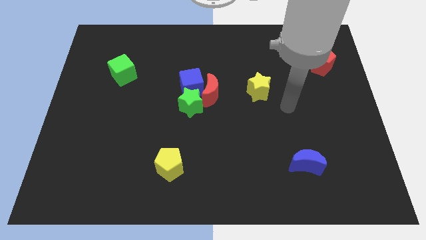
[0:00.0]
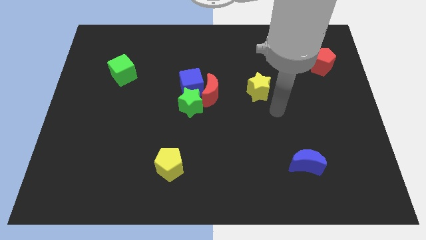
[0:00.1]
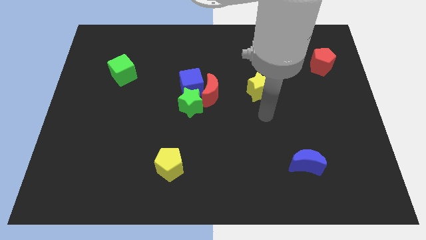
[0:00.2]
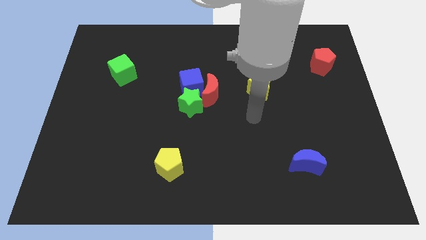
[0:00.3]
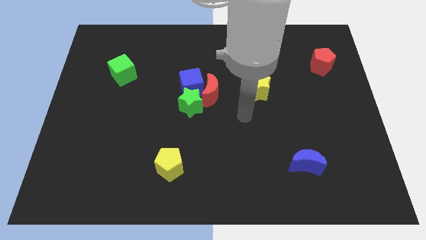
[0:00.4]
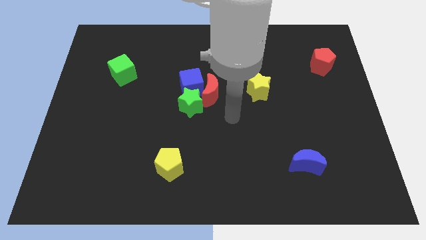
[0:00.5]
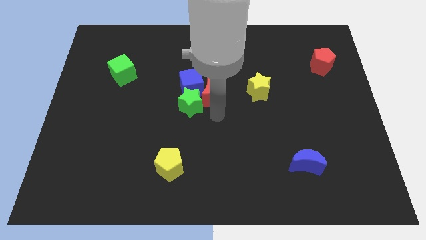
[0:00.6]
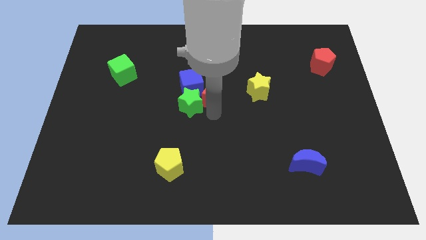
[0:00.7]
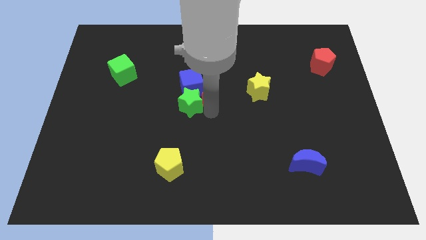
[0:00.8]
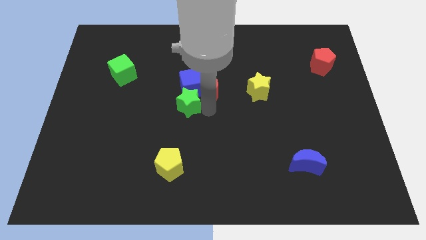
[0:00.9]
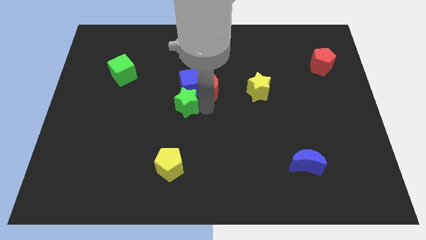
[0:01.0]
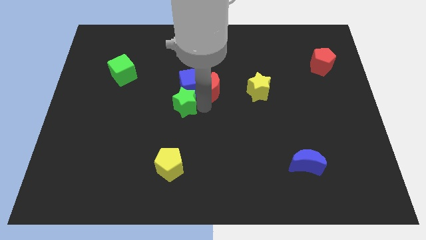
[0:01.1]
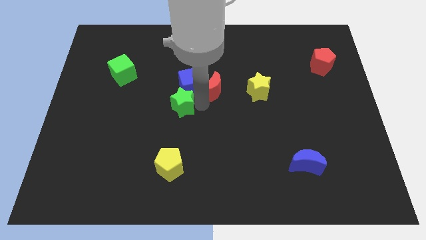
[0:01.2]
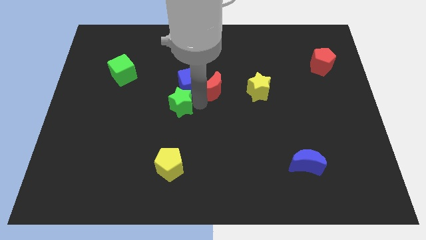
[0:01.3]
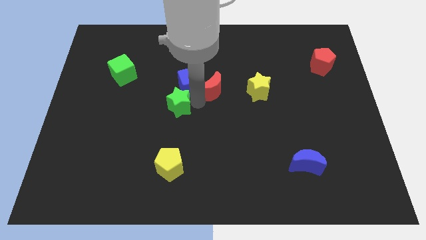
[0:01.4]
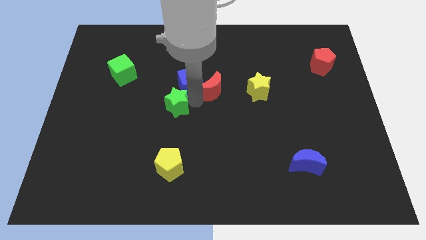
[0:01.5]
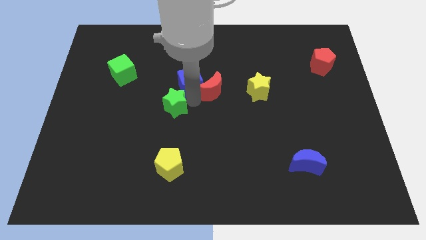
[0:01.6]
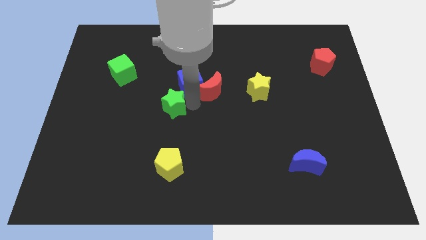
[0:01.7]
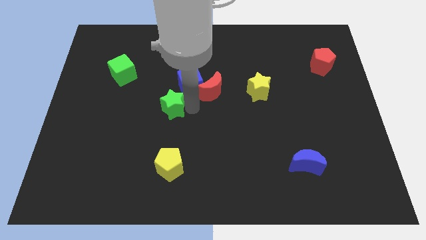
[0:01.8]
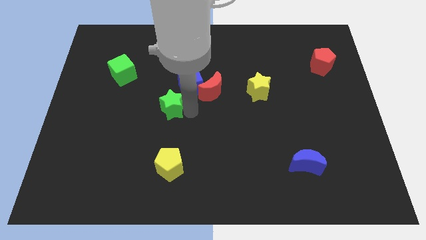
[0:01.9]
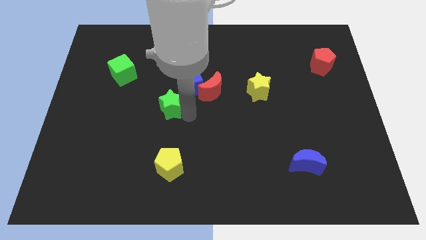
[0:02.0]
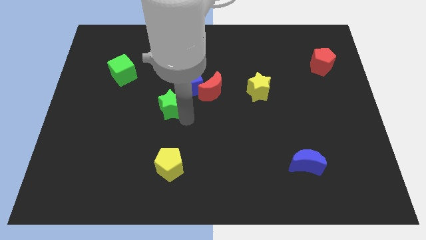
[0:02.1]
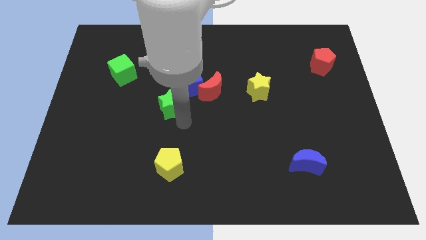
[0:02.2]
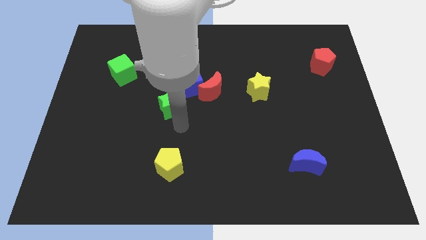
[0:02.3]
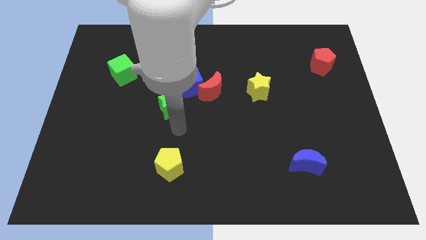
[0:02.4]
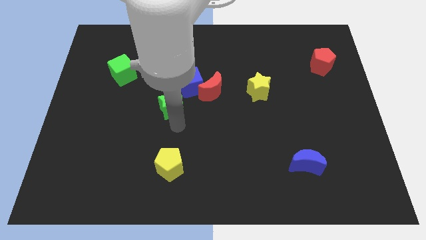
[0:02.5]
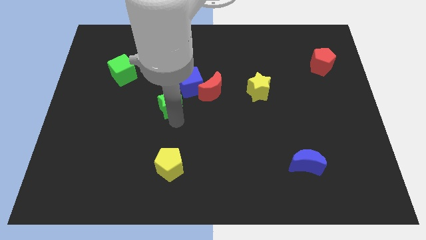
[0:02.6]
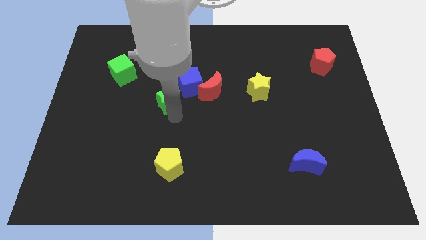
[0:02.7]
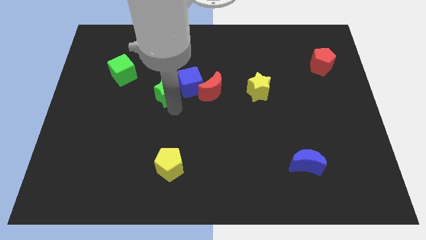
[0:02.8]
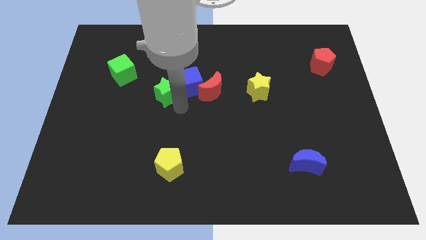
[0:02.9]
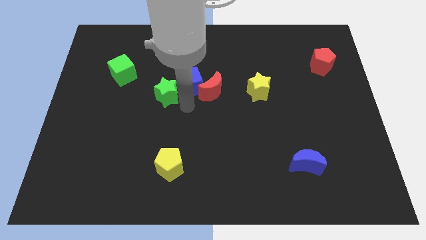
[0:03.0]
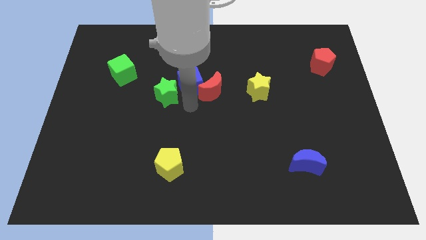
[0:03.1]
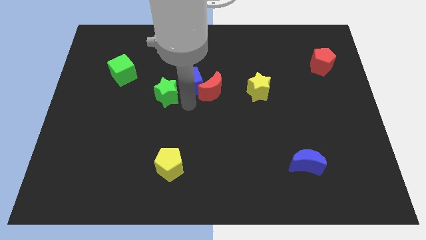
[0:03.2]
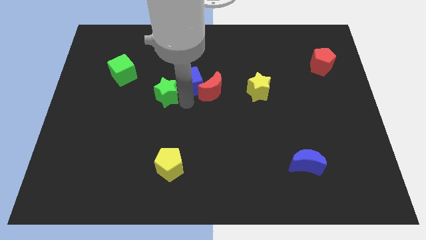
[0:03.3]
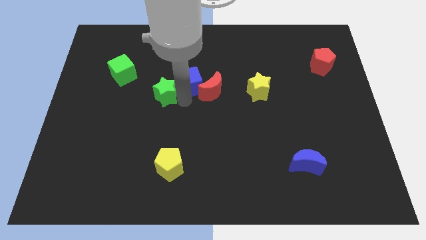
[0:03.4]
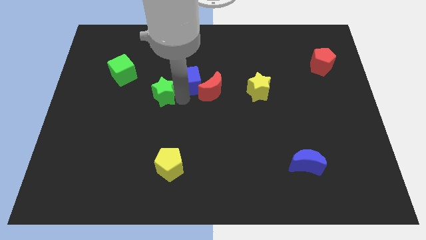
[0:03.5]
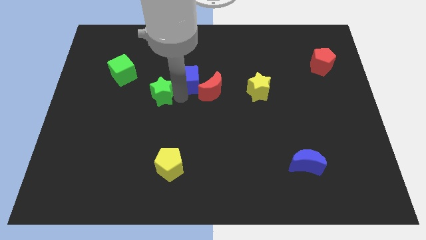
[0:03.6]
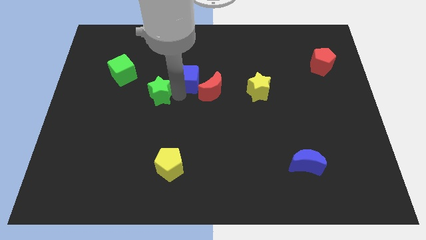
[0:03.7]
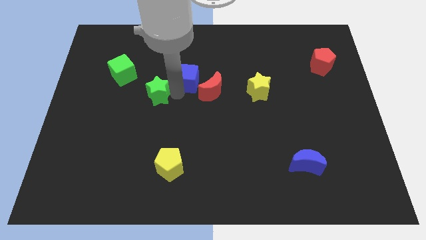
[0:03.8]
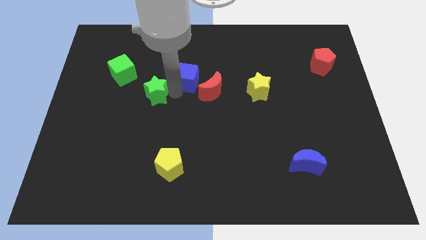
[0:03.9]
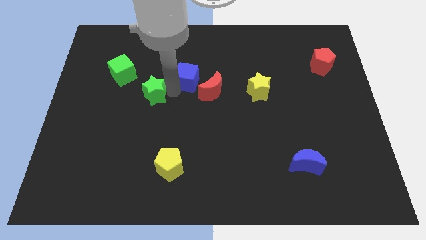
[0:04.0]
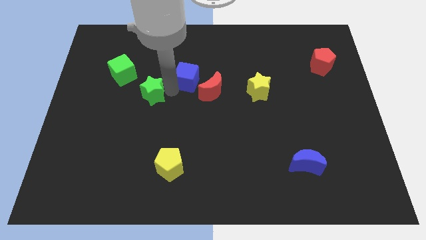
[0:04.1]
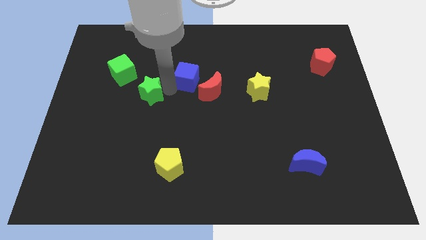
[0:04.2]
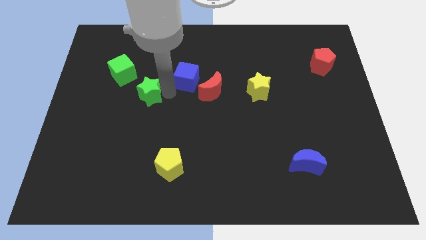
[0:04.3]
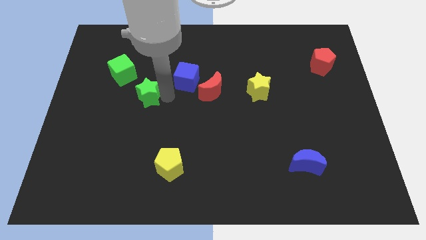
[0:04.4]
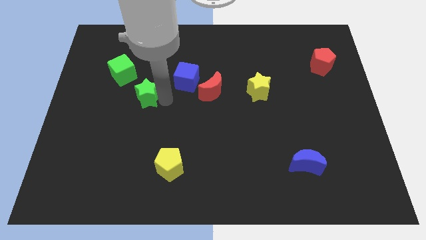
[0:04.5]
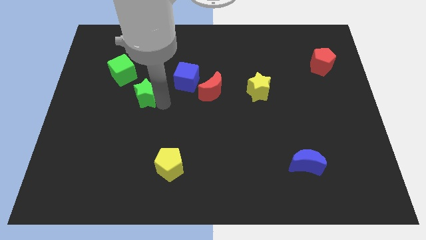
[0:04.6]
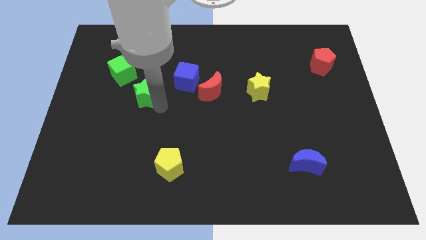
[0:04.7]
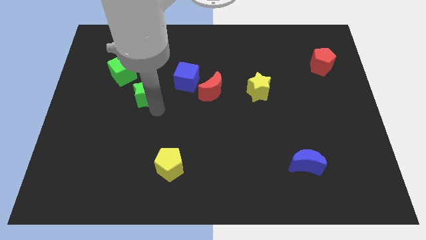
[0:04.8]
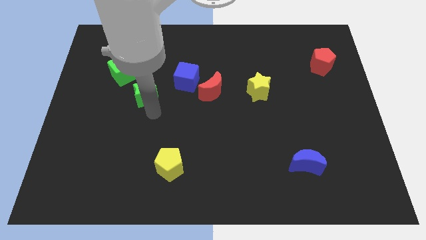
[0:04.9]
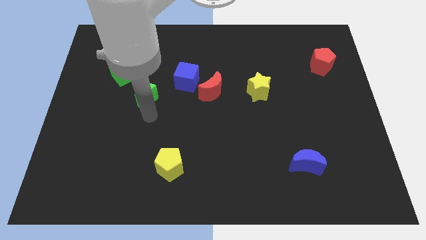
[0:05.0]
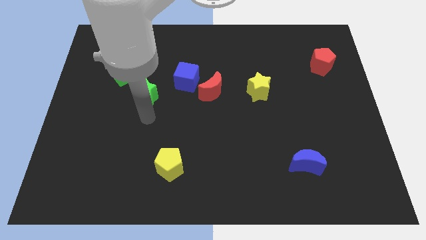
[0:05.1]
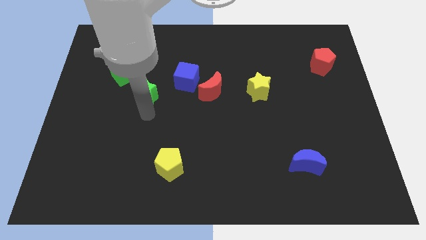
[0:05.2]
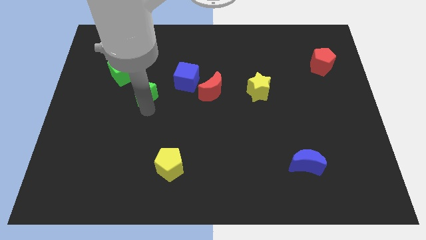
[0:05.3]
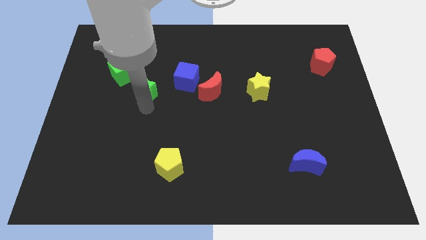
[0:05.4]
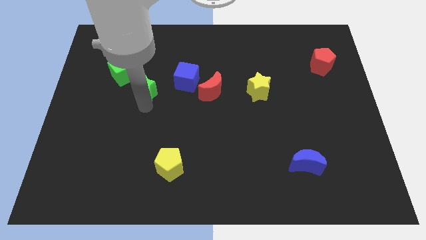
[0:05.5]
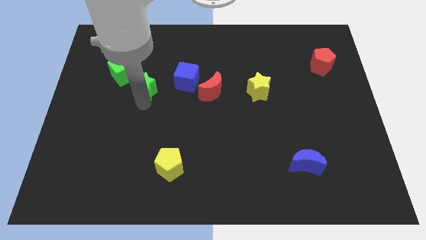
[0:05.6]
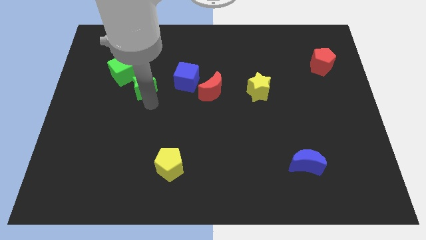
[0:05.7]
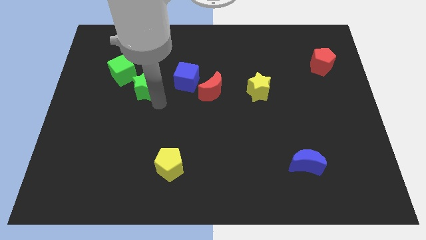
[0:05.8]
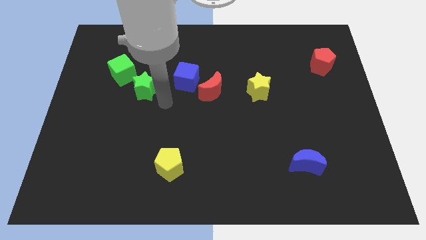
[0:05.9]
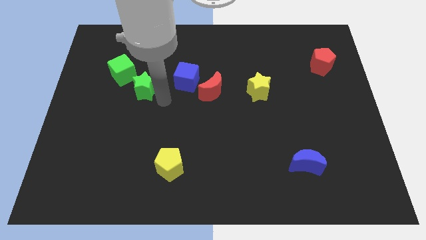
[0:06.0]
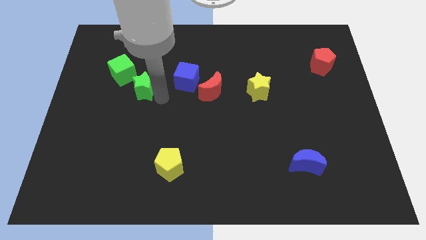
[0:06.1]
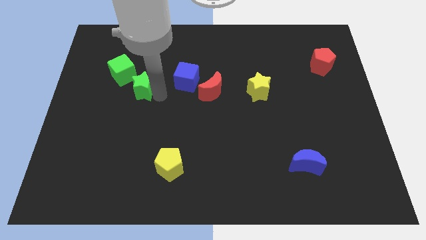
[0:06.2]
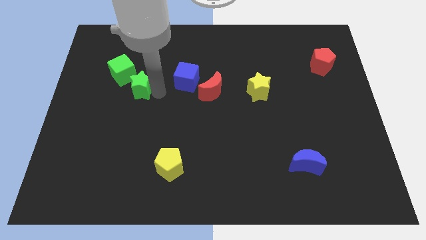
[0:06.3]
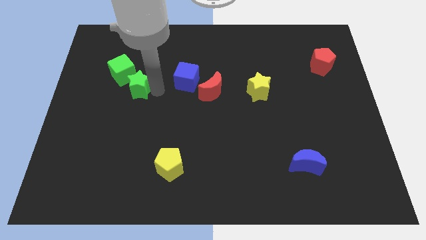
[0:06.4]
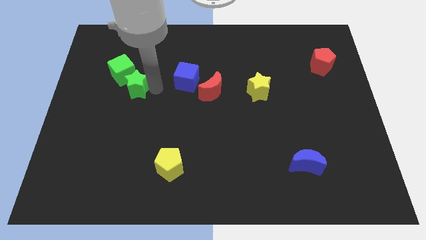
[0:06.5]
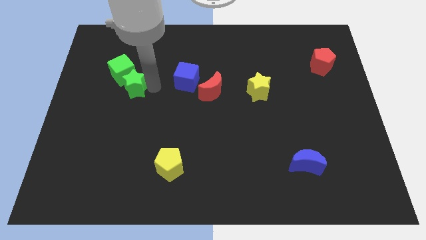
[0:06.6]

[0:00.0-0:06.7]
put the green star close to the green cube
